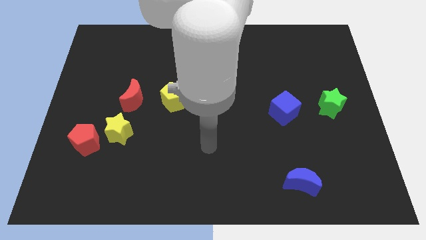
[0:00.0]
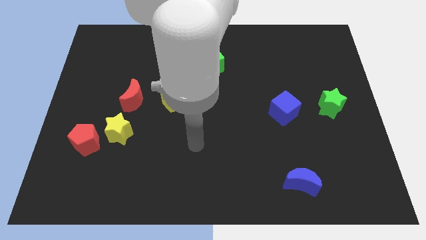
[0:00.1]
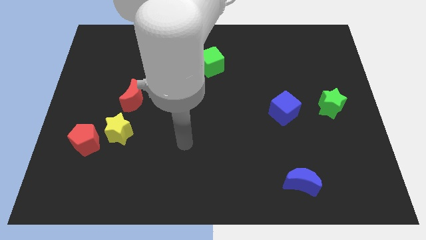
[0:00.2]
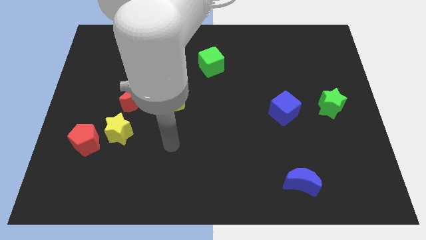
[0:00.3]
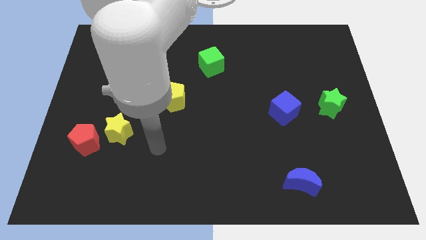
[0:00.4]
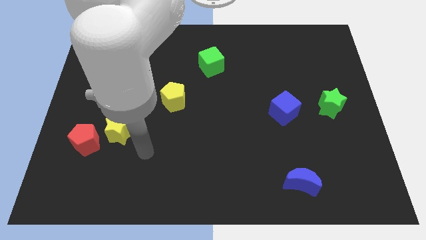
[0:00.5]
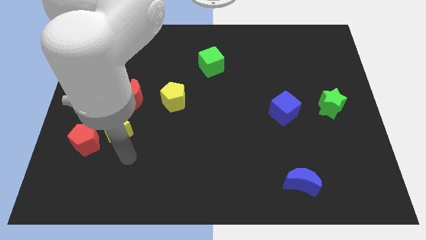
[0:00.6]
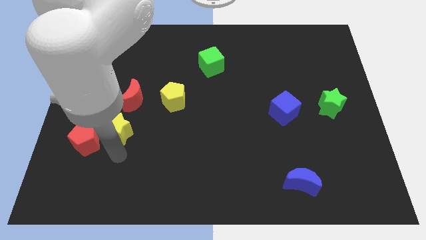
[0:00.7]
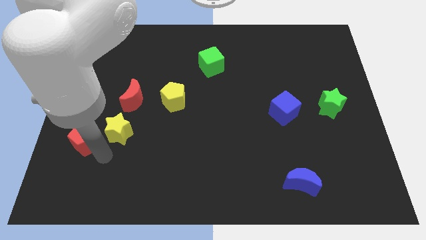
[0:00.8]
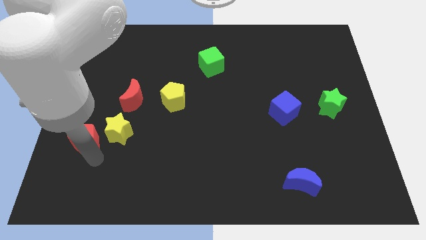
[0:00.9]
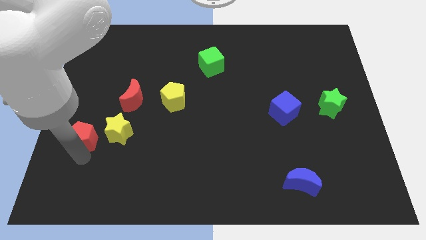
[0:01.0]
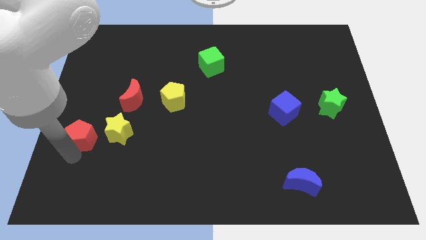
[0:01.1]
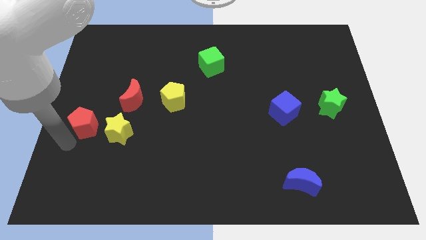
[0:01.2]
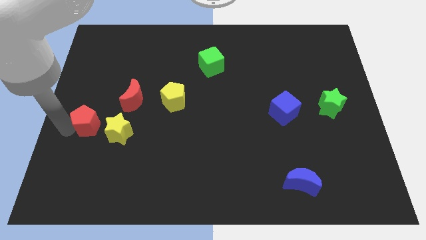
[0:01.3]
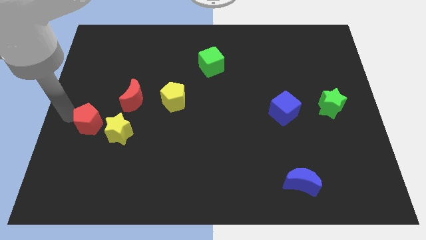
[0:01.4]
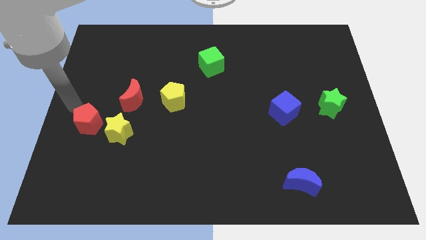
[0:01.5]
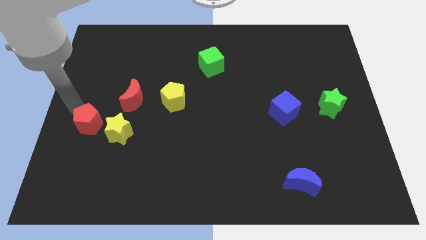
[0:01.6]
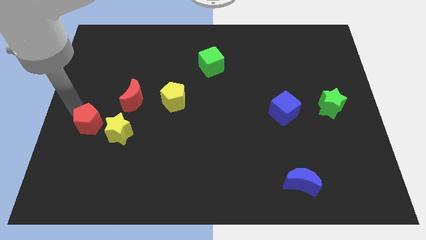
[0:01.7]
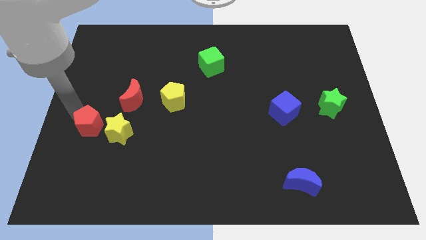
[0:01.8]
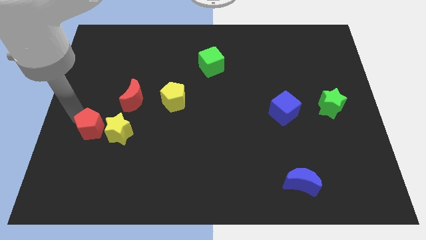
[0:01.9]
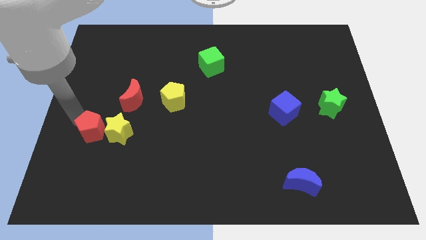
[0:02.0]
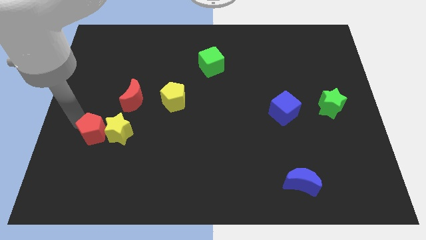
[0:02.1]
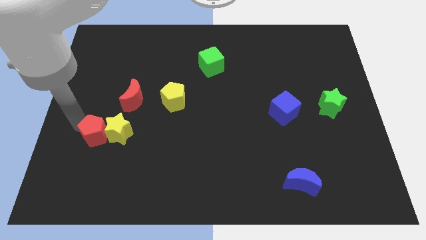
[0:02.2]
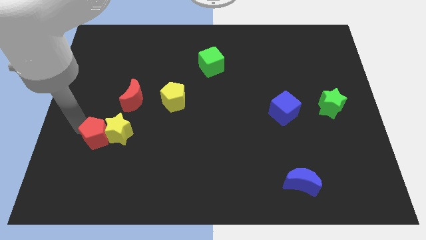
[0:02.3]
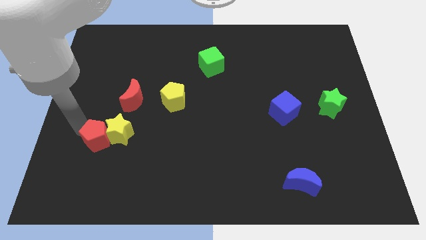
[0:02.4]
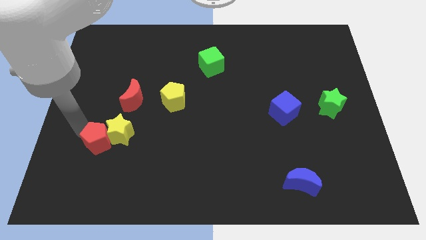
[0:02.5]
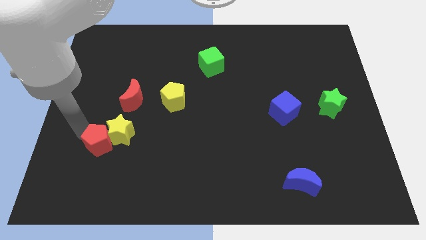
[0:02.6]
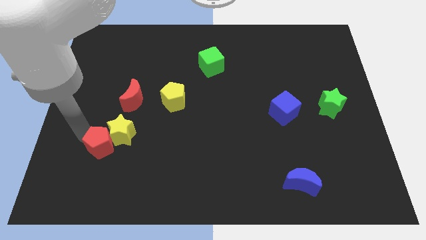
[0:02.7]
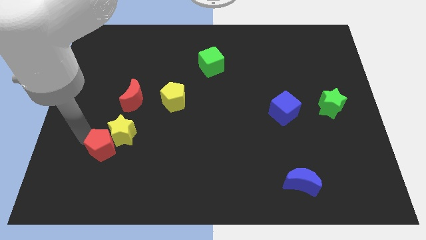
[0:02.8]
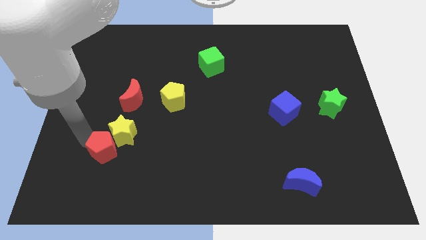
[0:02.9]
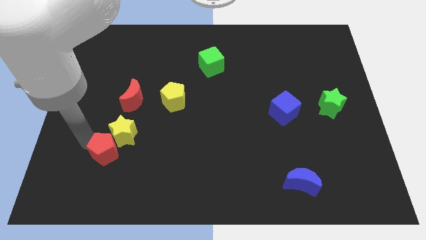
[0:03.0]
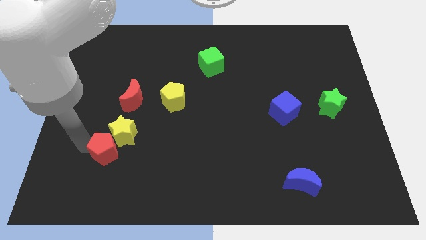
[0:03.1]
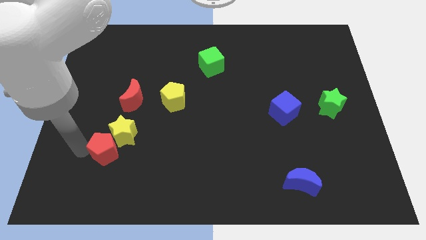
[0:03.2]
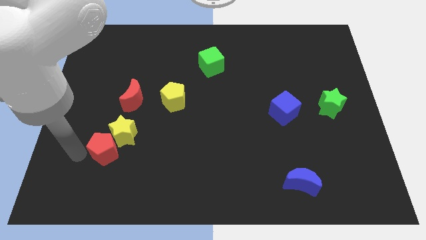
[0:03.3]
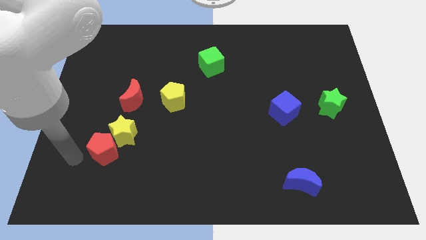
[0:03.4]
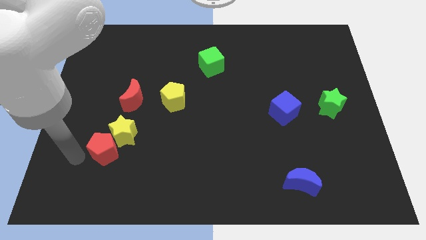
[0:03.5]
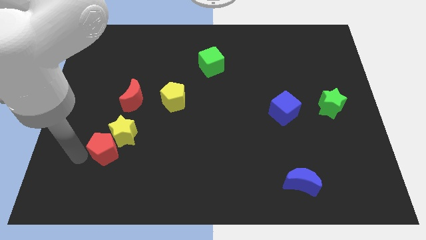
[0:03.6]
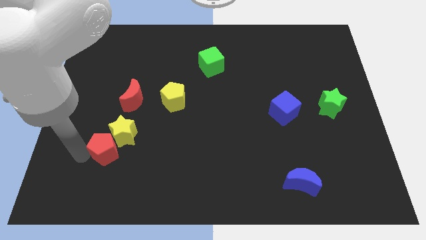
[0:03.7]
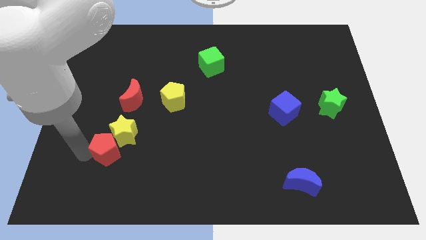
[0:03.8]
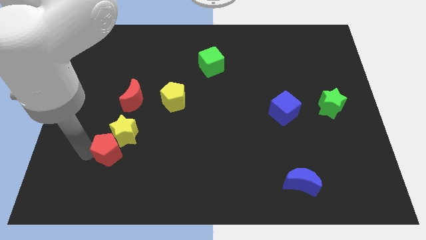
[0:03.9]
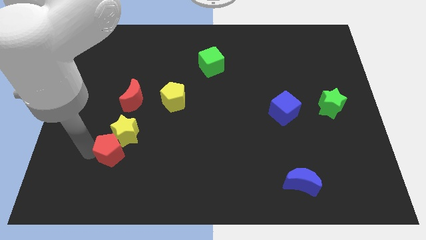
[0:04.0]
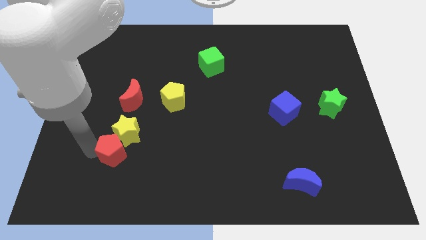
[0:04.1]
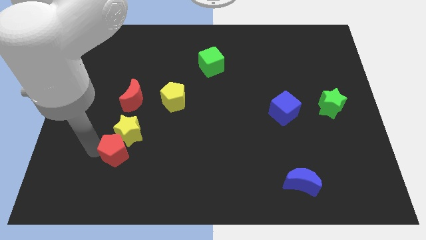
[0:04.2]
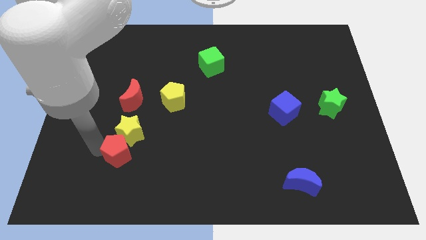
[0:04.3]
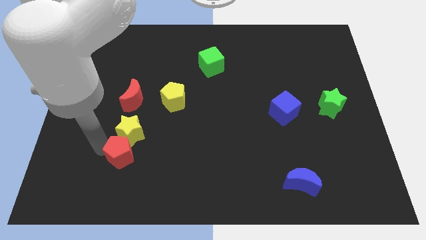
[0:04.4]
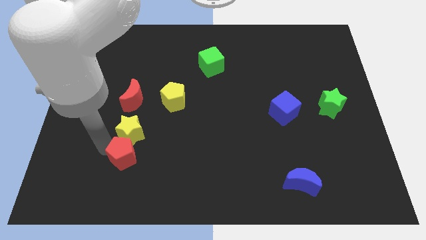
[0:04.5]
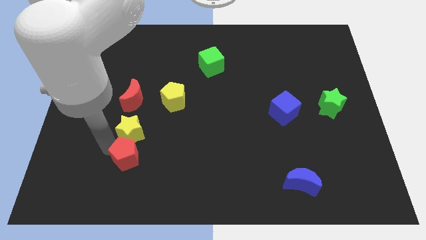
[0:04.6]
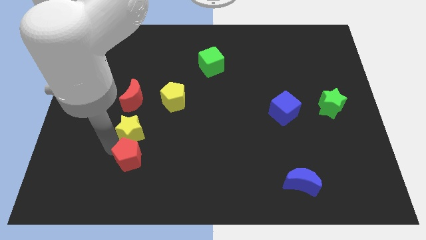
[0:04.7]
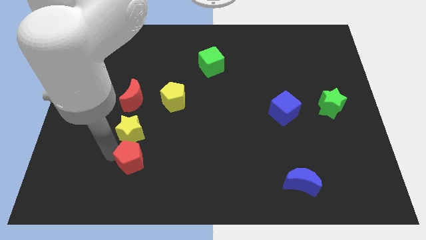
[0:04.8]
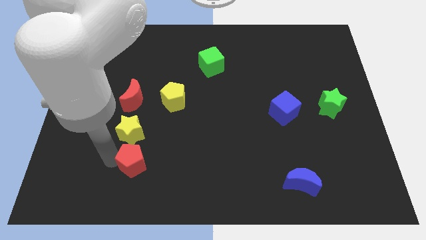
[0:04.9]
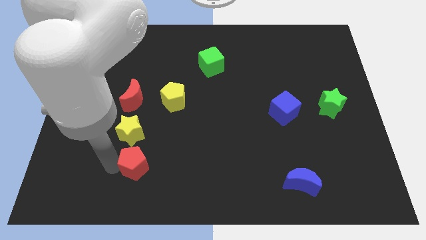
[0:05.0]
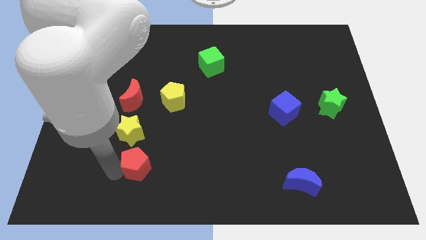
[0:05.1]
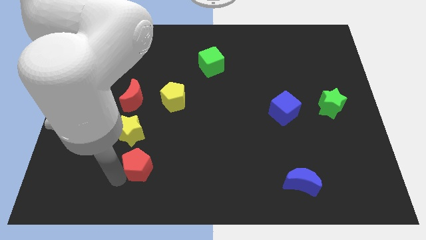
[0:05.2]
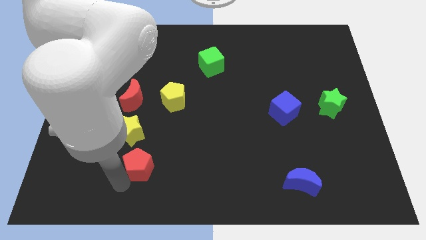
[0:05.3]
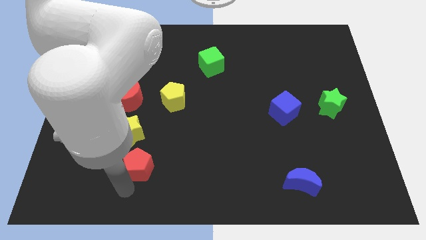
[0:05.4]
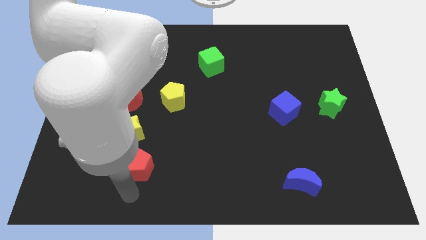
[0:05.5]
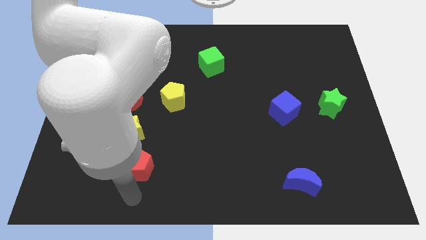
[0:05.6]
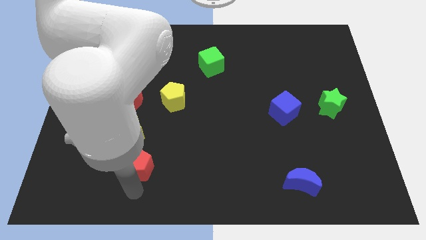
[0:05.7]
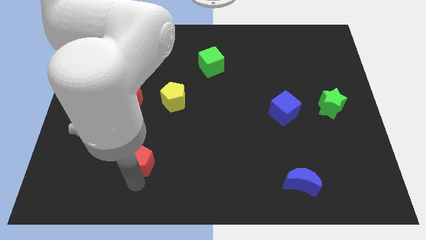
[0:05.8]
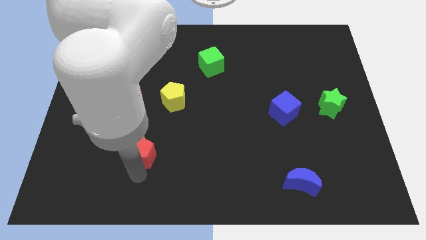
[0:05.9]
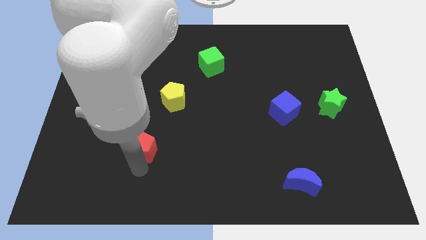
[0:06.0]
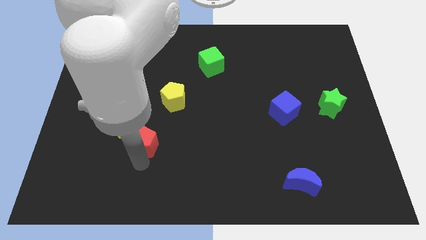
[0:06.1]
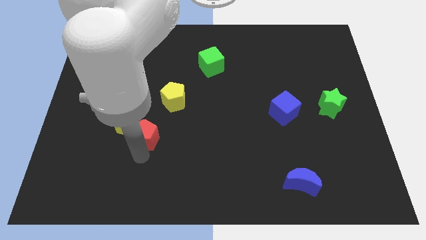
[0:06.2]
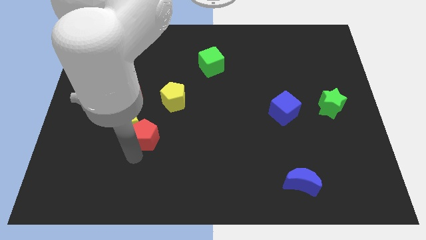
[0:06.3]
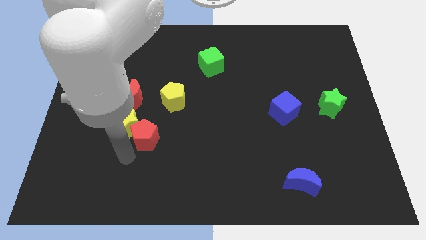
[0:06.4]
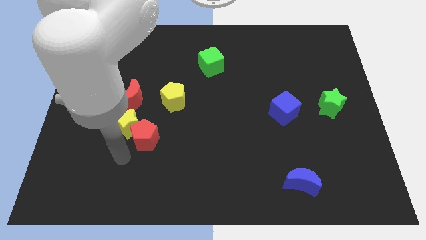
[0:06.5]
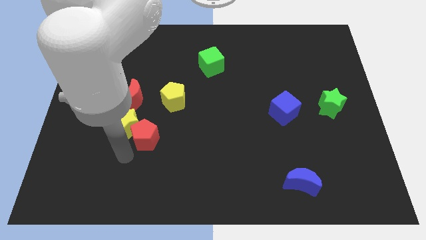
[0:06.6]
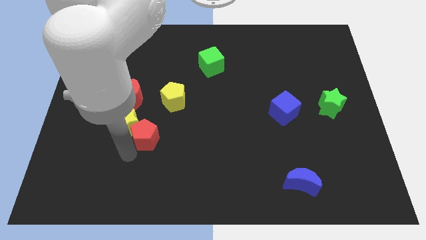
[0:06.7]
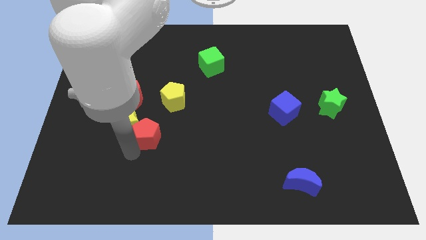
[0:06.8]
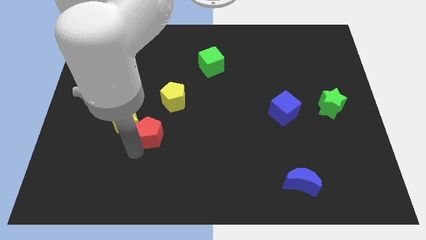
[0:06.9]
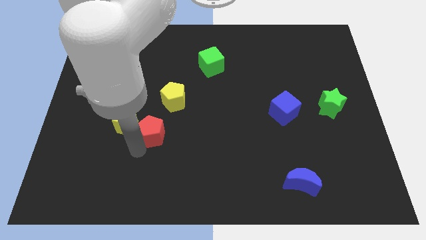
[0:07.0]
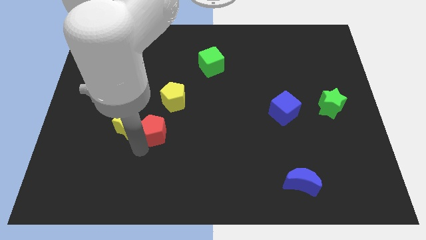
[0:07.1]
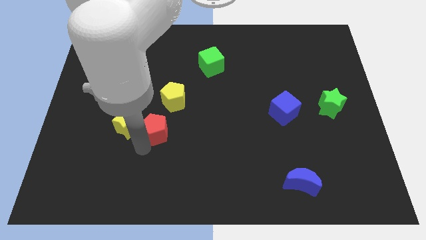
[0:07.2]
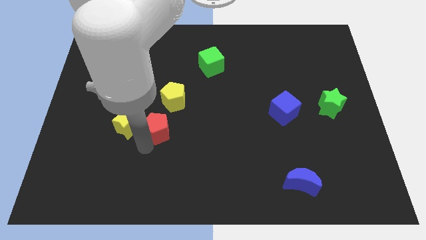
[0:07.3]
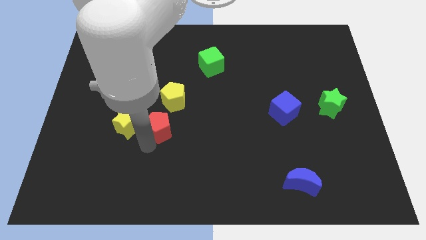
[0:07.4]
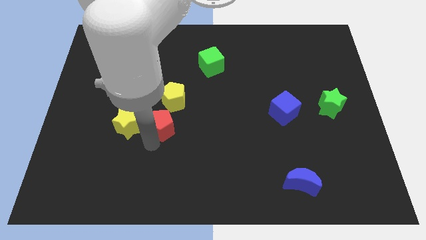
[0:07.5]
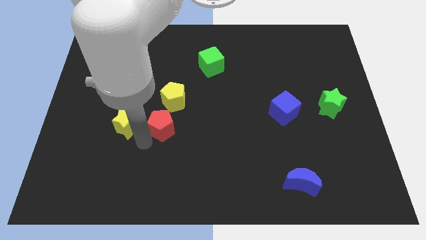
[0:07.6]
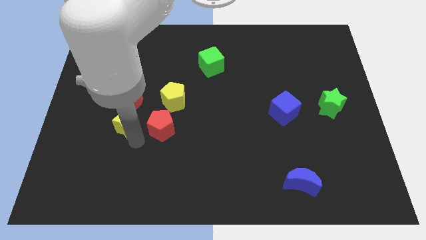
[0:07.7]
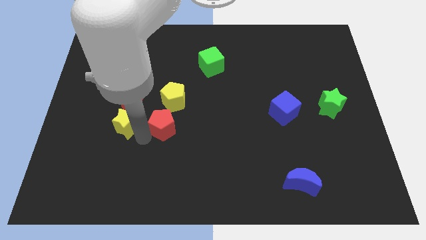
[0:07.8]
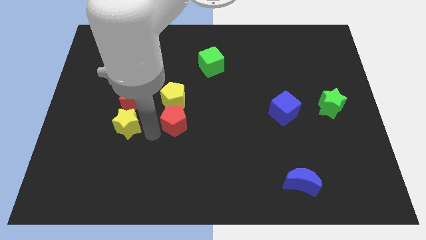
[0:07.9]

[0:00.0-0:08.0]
move the red pentagon to the center
